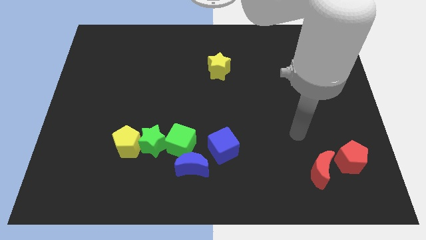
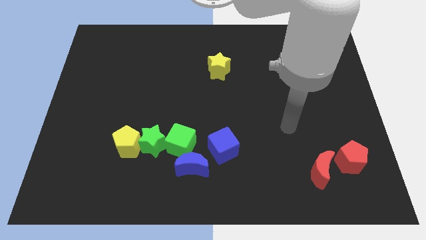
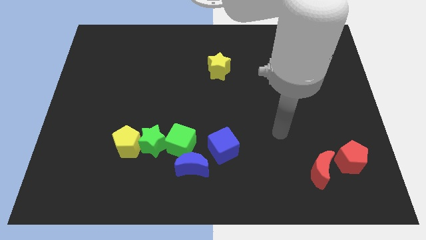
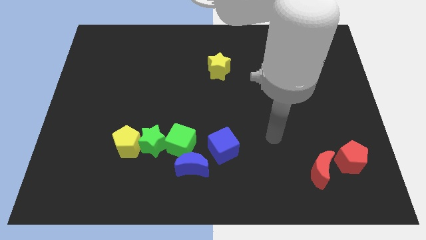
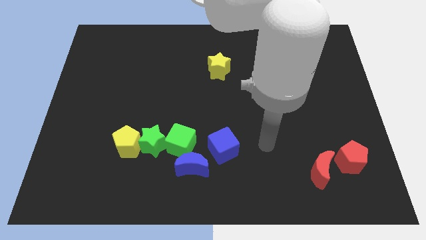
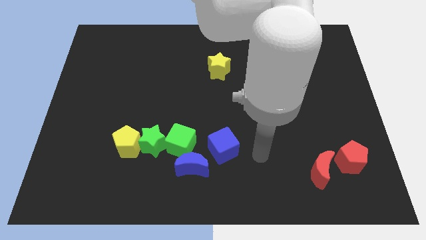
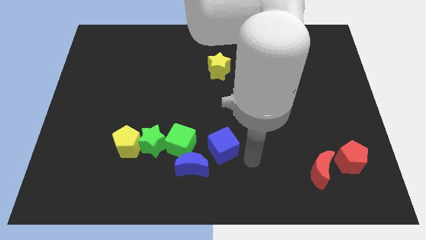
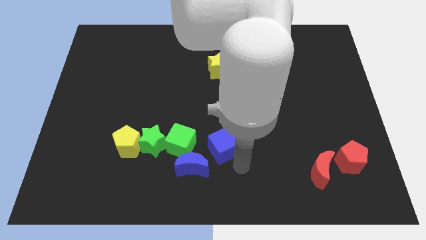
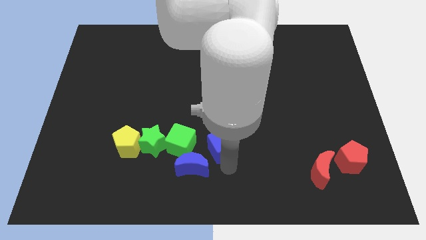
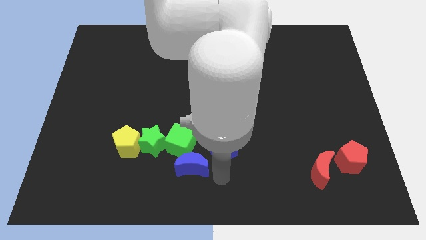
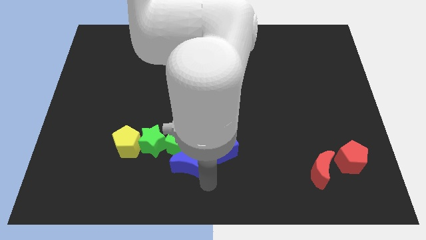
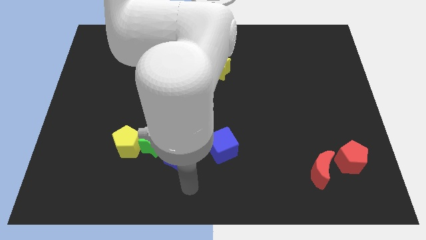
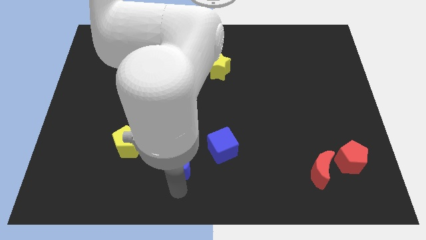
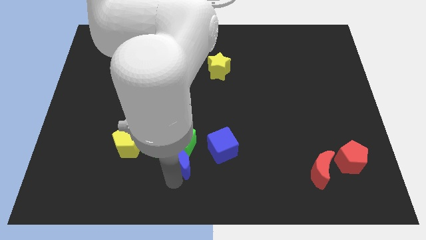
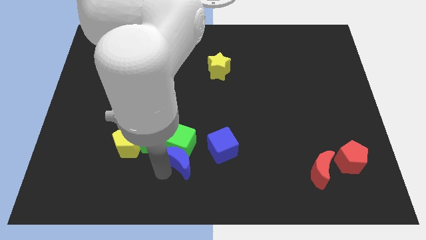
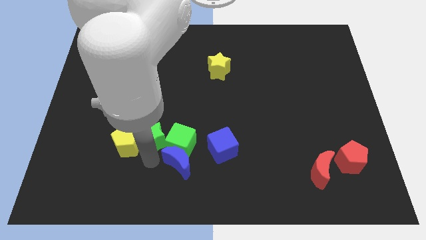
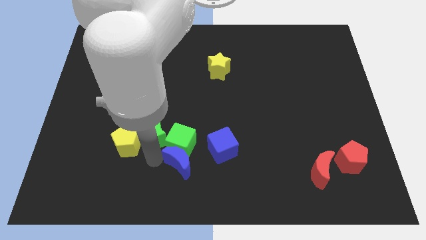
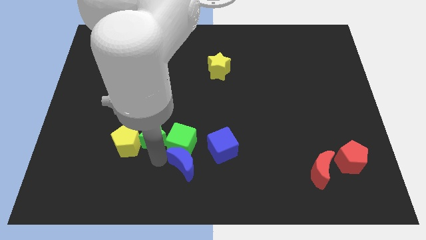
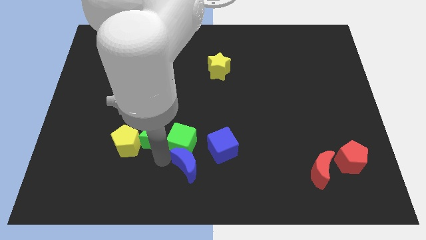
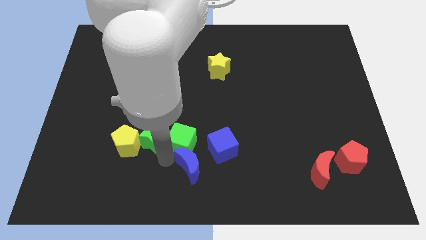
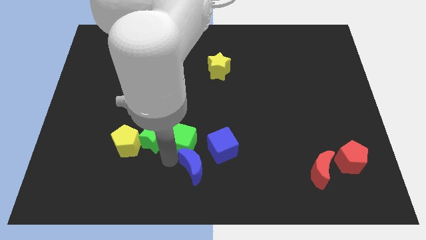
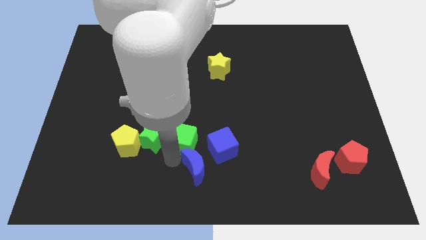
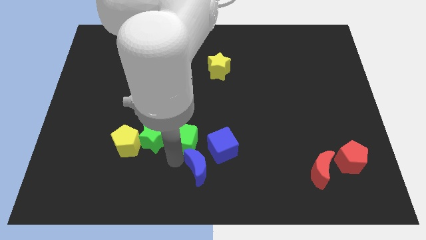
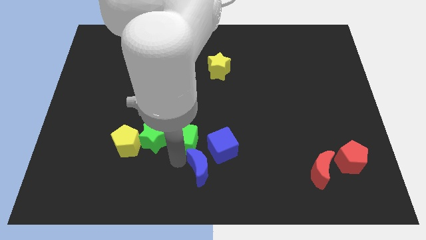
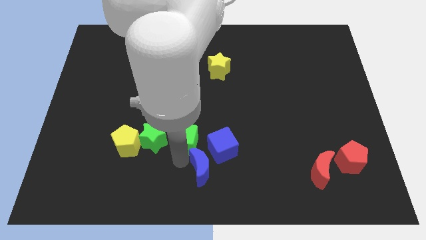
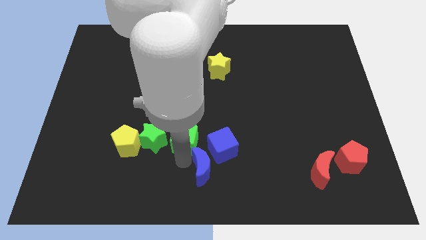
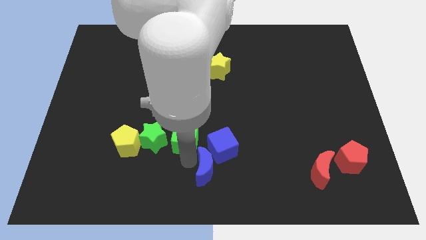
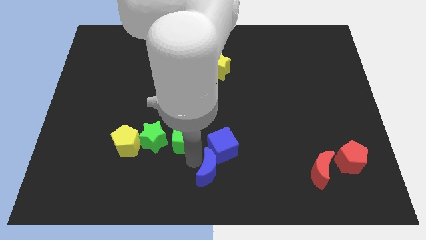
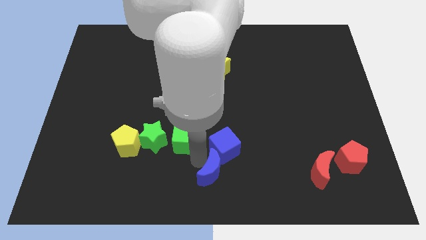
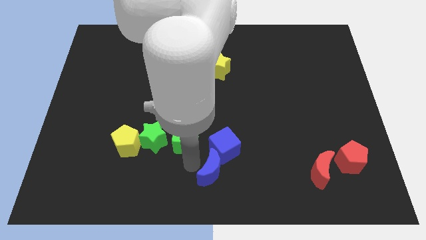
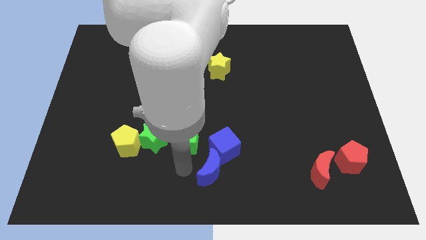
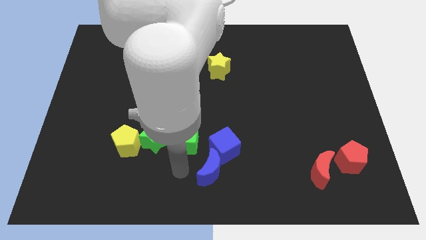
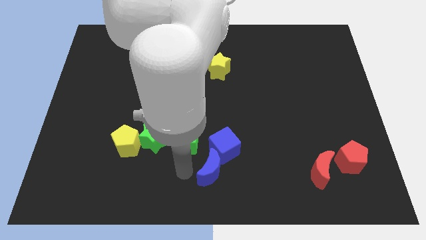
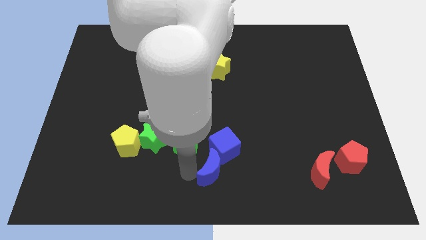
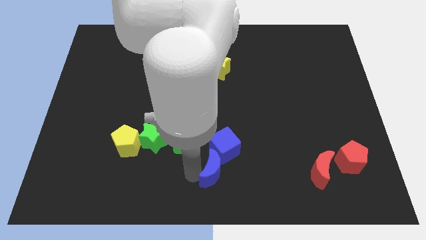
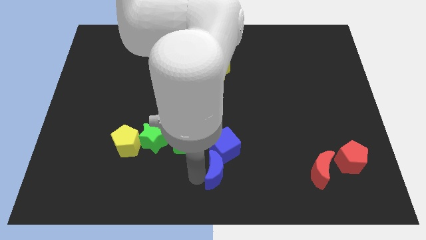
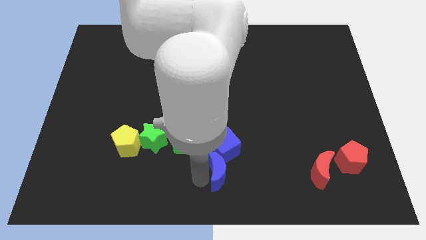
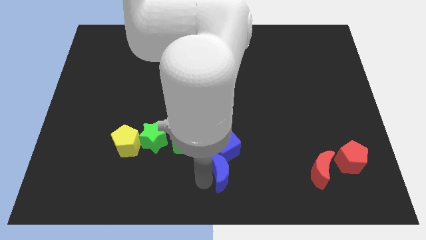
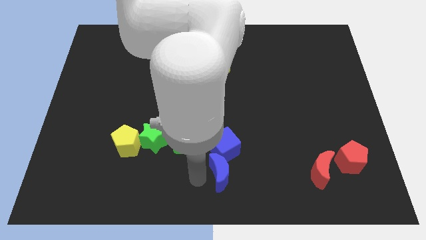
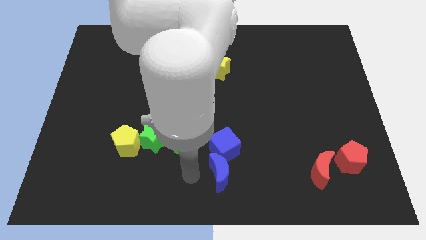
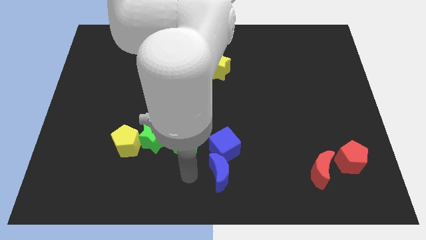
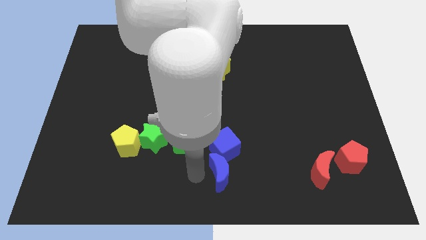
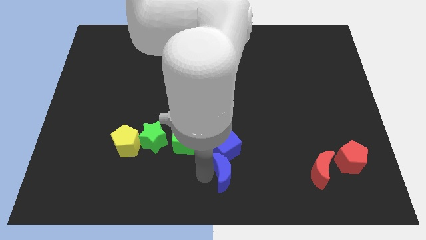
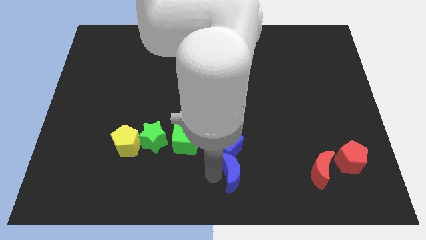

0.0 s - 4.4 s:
slightly push the blue moon right

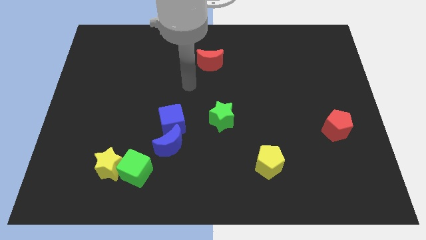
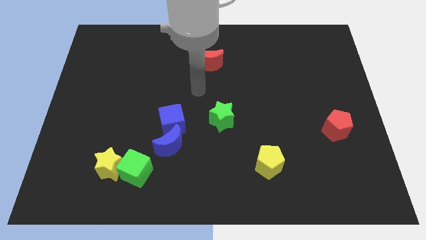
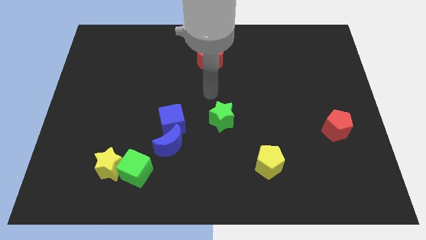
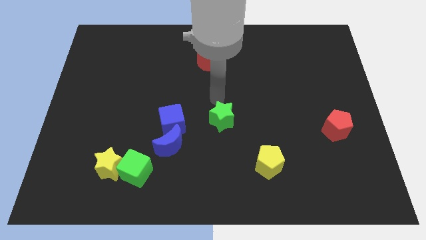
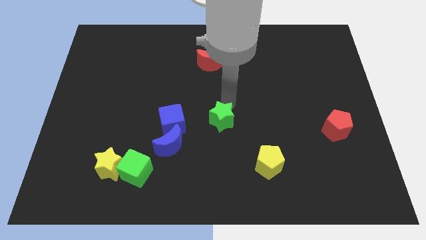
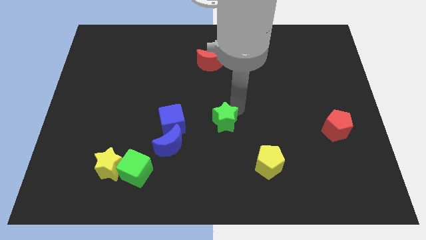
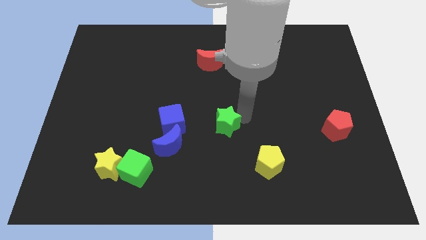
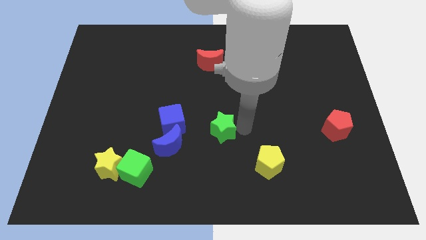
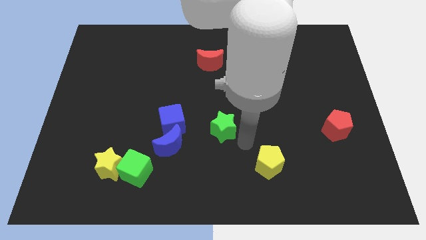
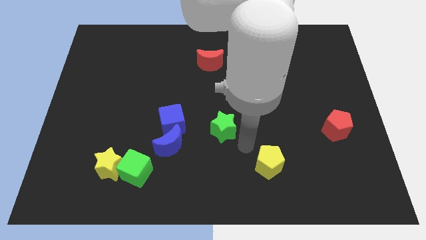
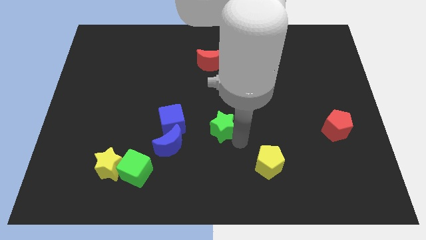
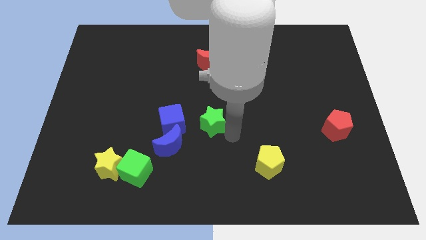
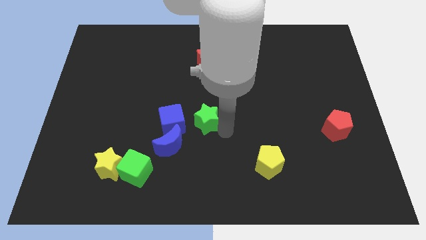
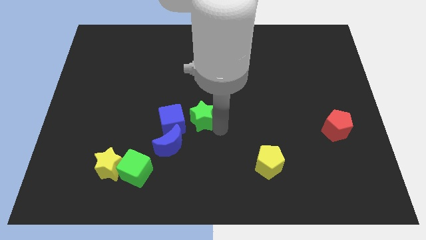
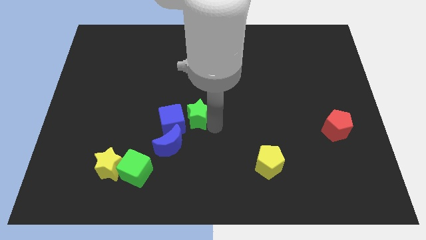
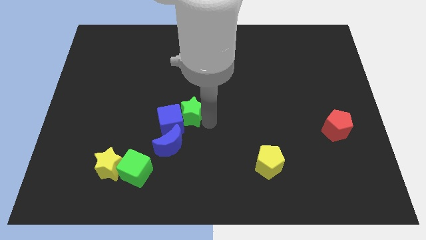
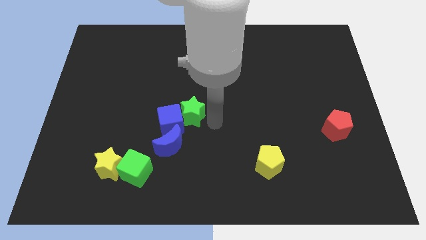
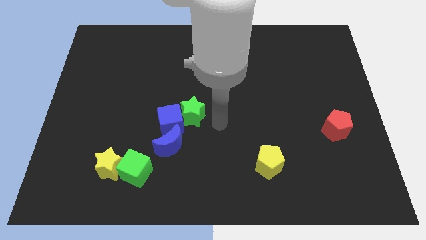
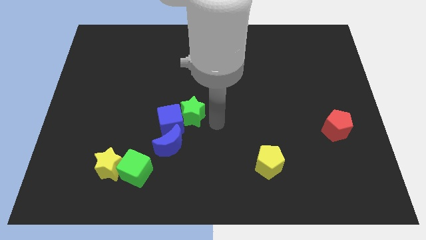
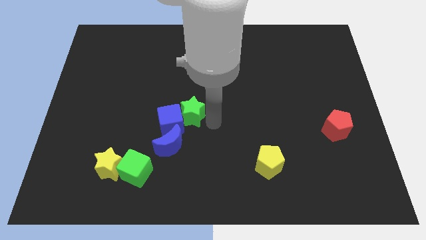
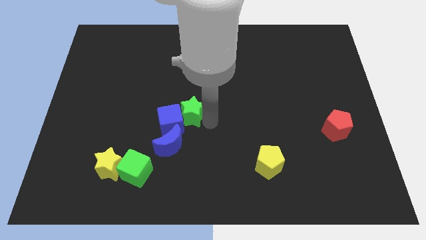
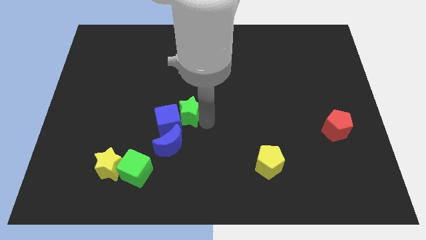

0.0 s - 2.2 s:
slightly move the green star to the left

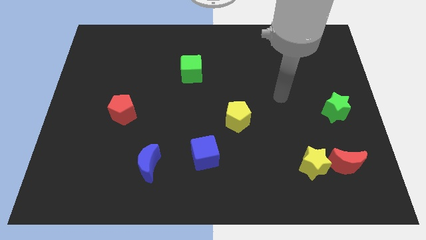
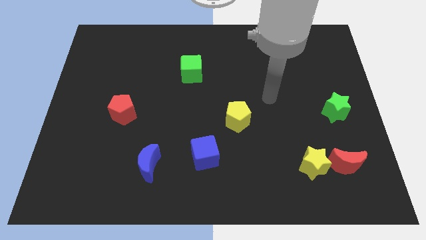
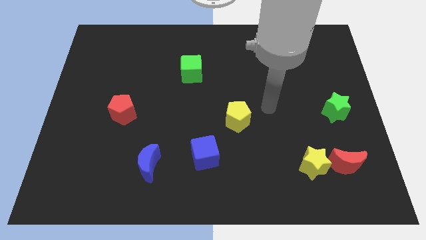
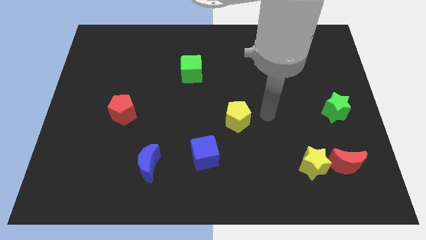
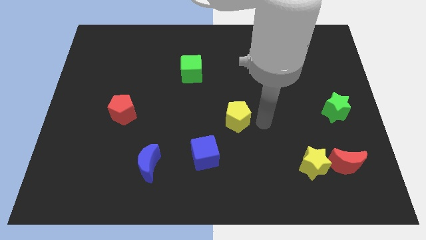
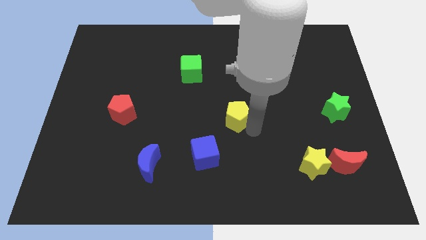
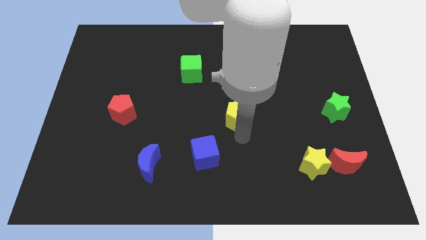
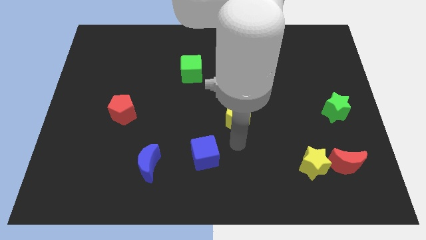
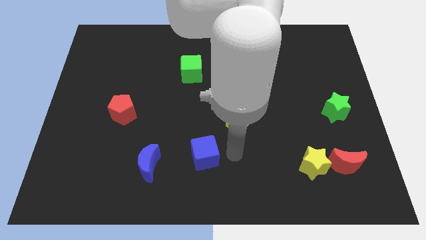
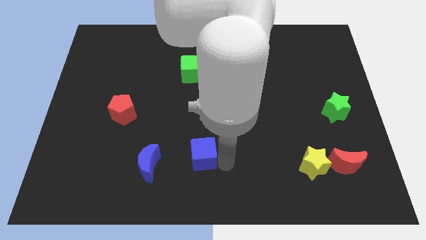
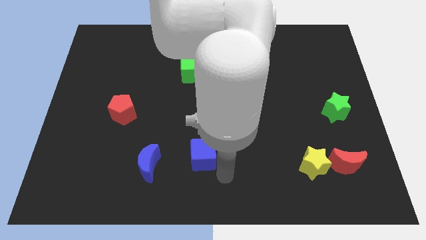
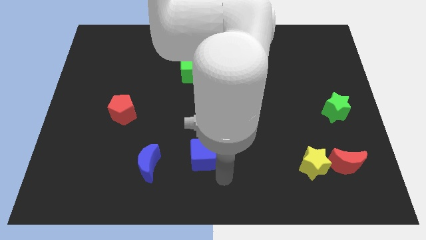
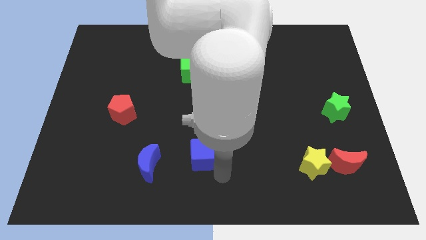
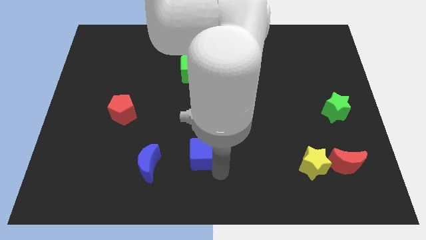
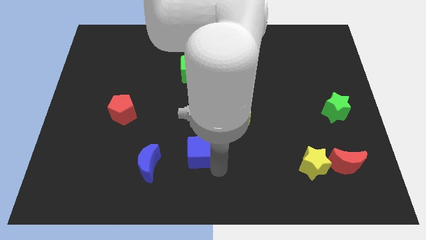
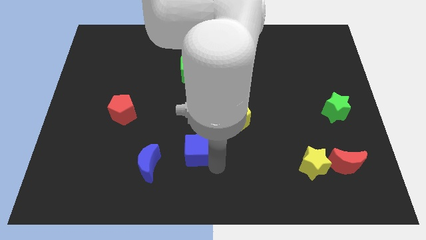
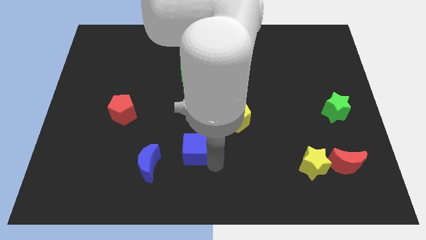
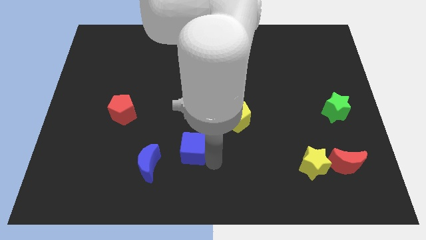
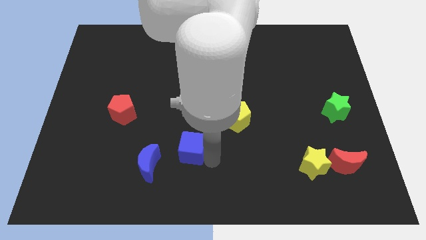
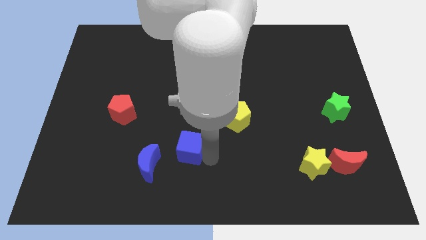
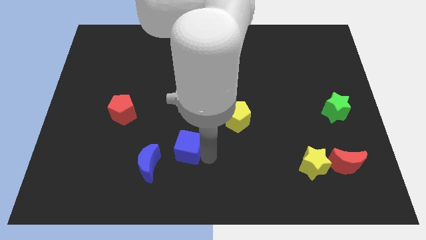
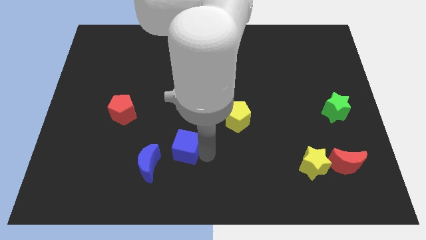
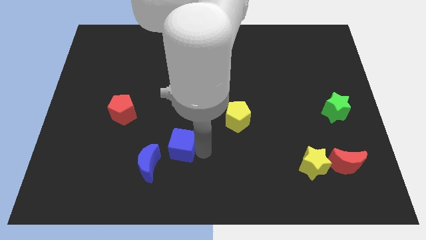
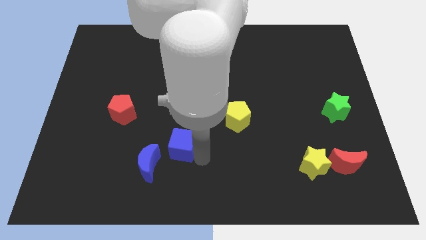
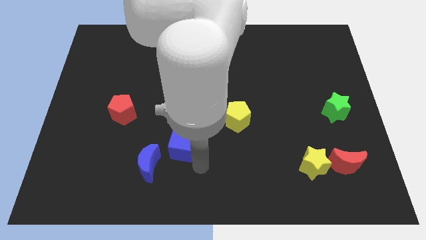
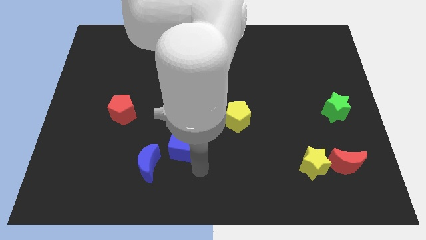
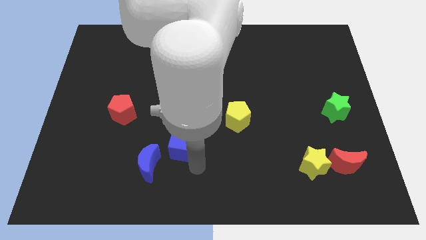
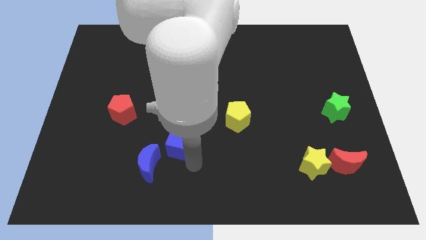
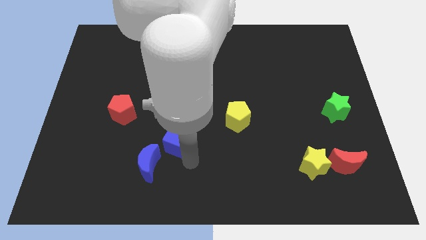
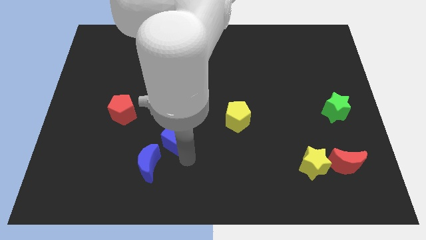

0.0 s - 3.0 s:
slide the blue cube upwards and to the left diagonally somewhat
